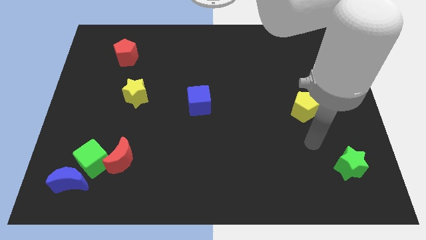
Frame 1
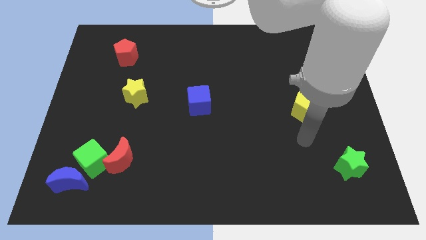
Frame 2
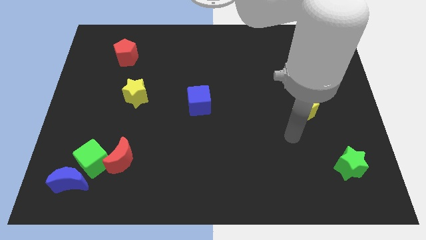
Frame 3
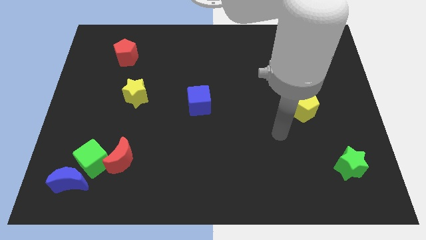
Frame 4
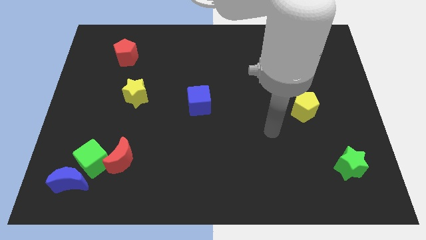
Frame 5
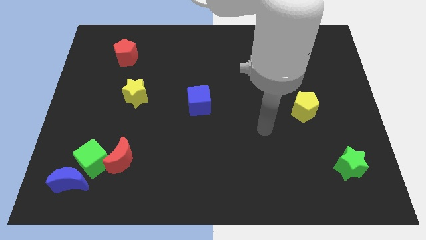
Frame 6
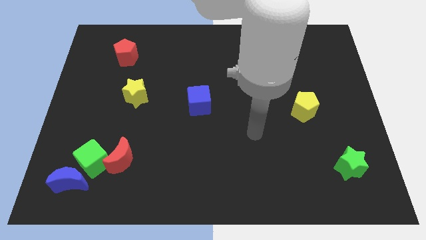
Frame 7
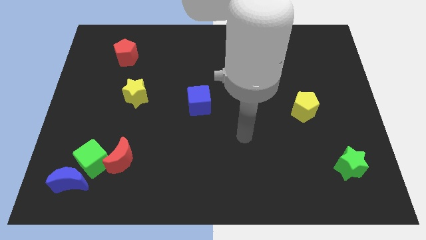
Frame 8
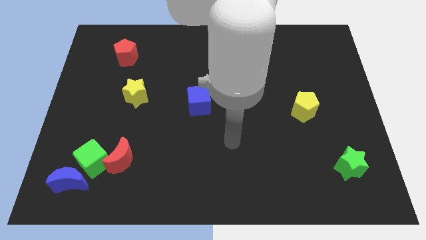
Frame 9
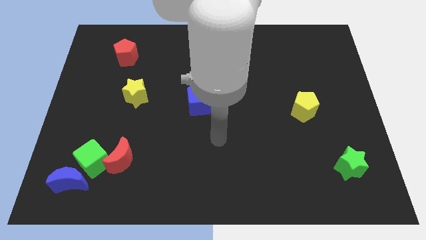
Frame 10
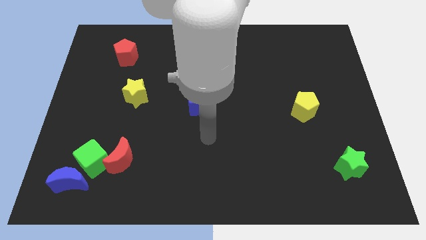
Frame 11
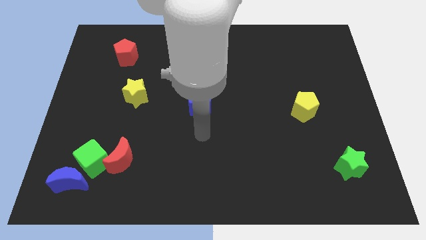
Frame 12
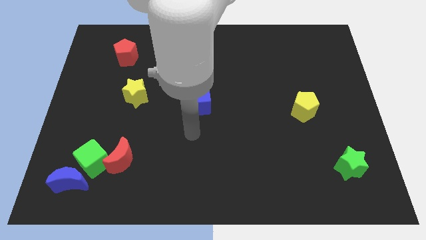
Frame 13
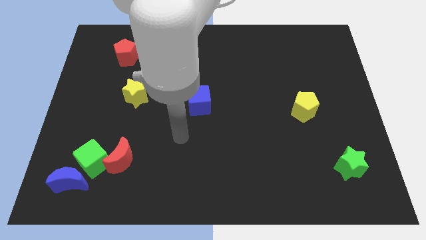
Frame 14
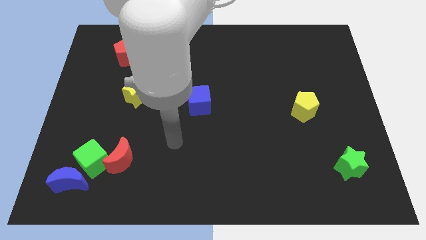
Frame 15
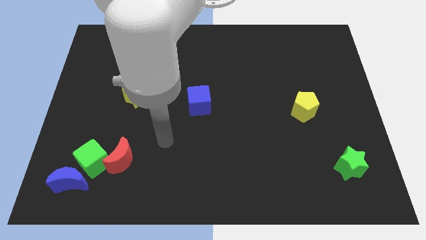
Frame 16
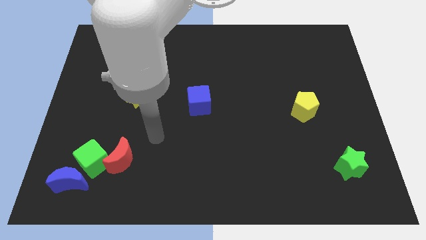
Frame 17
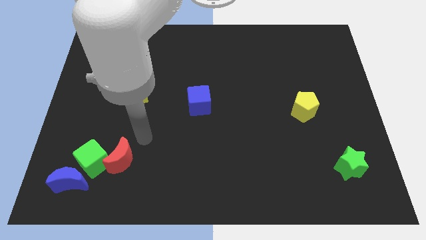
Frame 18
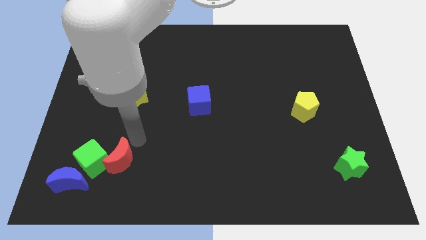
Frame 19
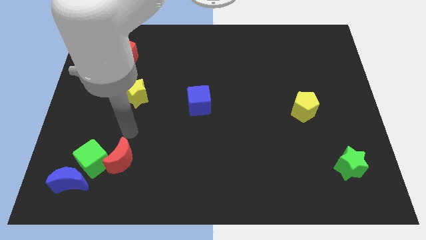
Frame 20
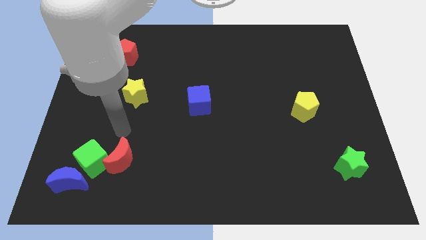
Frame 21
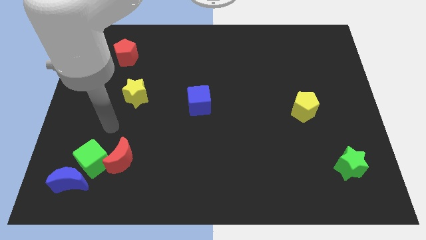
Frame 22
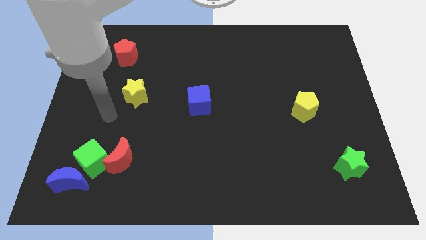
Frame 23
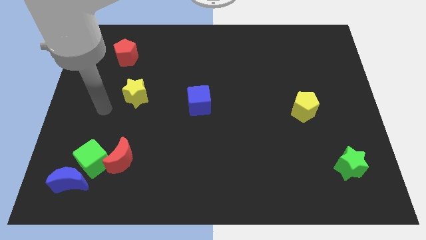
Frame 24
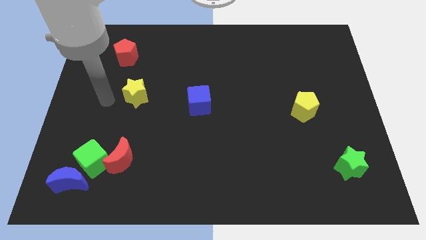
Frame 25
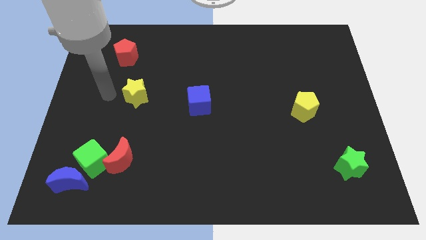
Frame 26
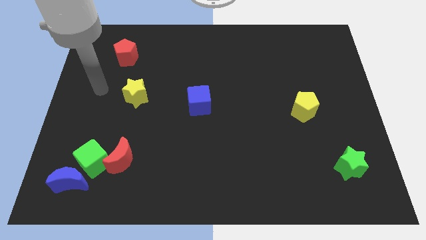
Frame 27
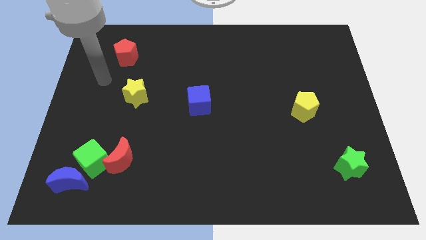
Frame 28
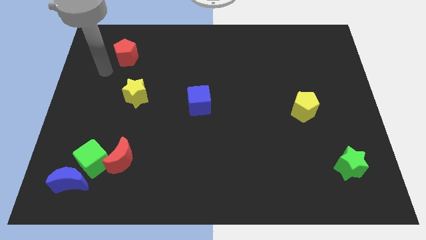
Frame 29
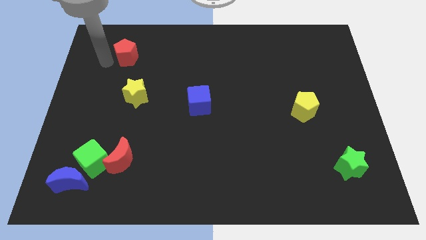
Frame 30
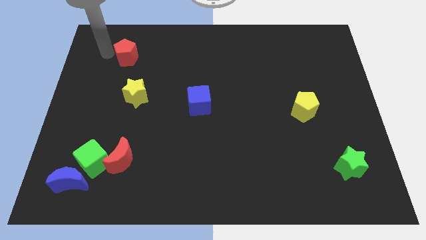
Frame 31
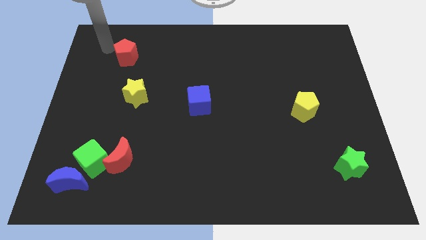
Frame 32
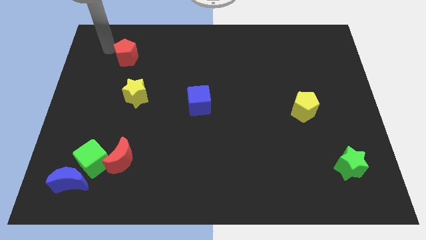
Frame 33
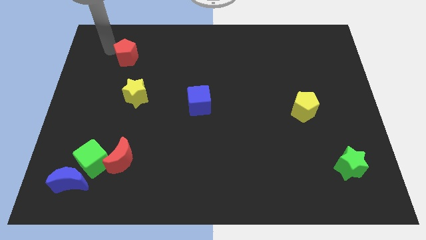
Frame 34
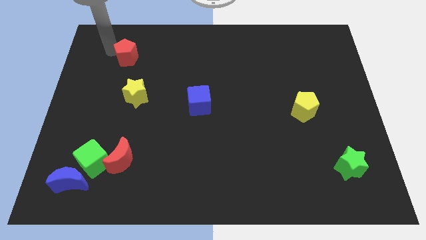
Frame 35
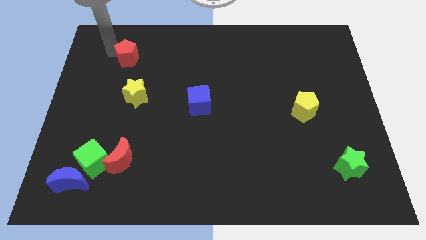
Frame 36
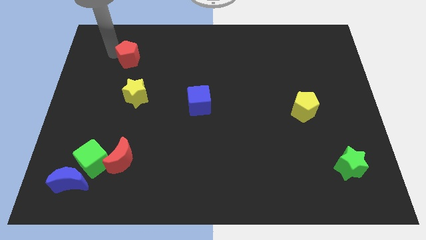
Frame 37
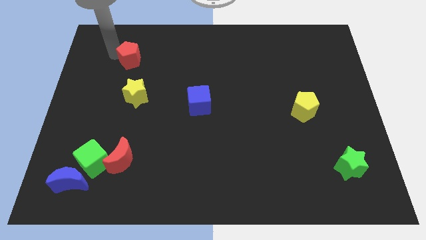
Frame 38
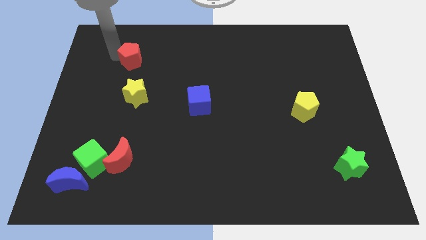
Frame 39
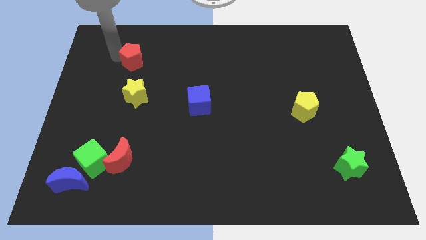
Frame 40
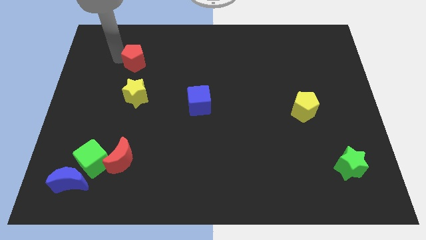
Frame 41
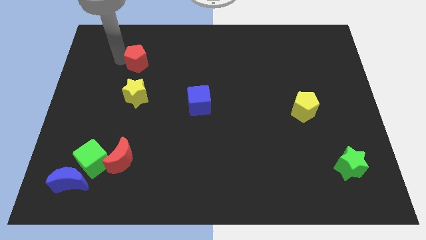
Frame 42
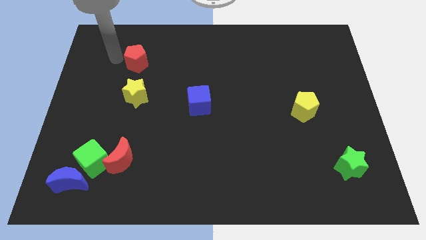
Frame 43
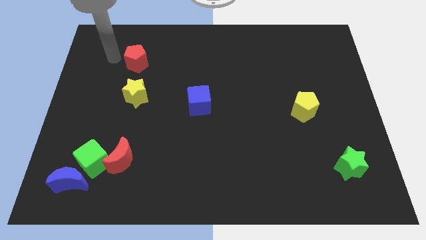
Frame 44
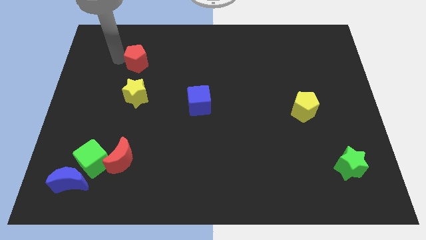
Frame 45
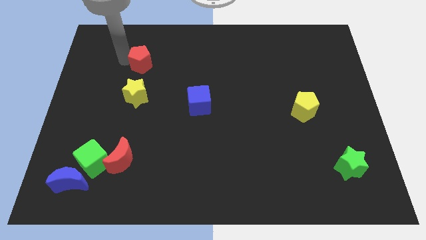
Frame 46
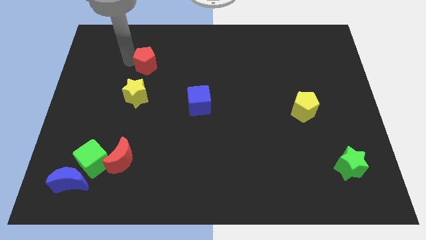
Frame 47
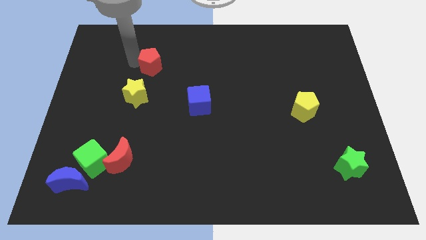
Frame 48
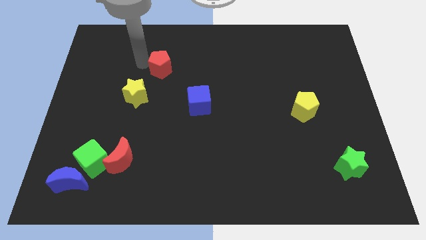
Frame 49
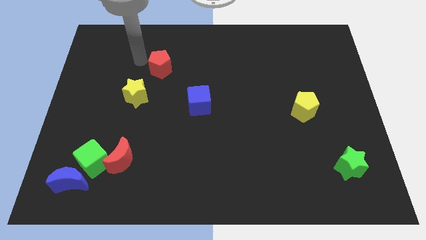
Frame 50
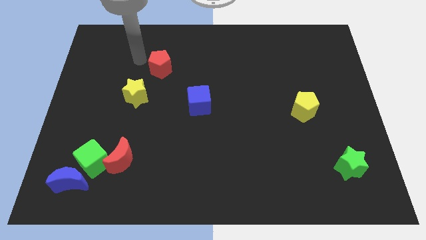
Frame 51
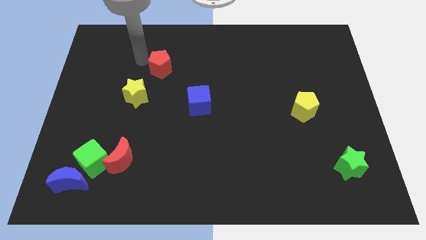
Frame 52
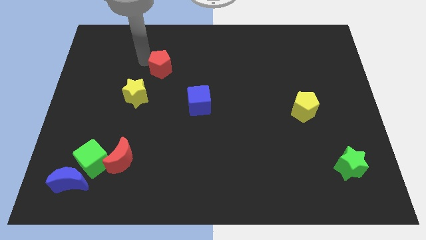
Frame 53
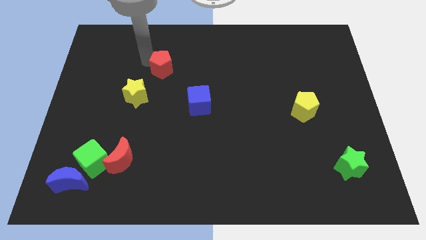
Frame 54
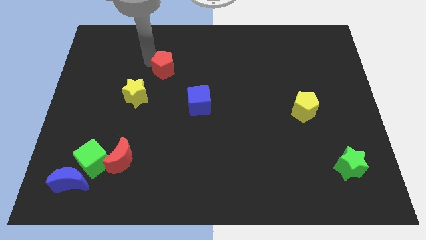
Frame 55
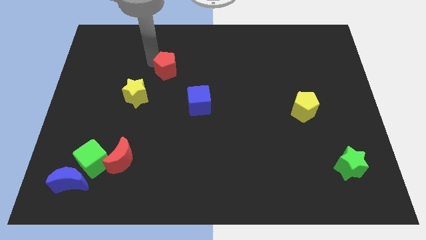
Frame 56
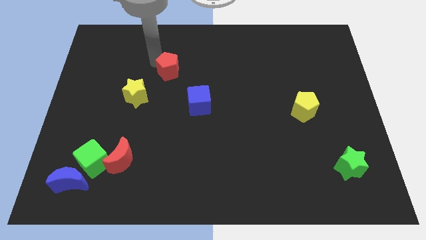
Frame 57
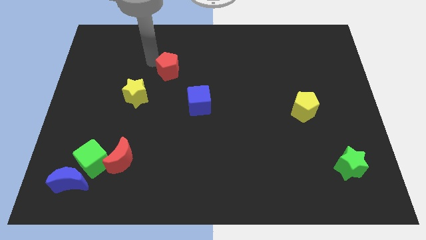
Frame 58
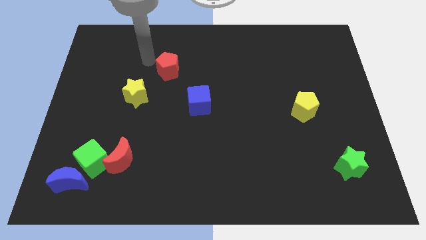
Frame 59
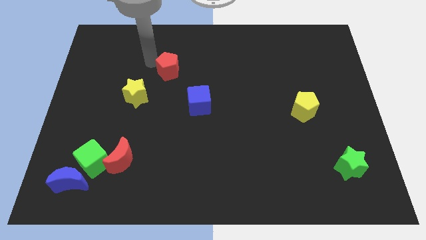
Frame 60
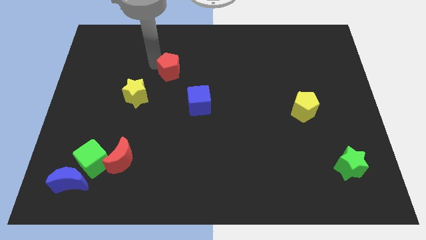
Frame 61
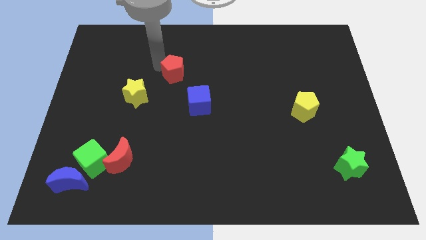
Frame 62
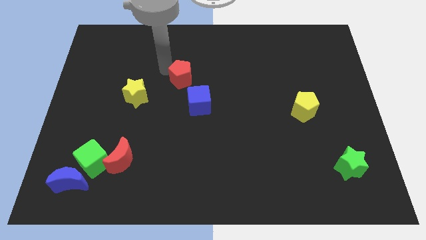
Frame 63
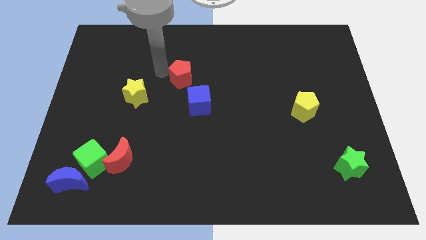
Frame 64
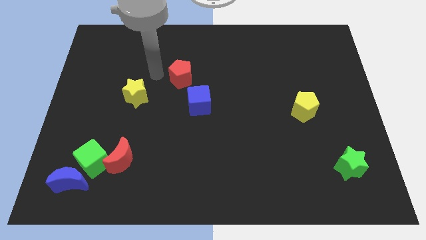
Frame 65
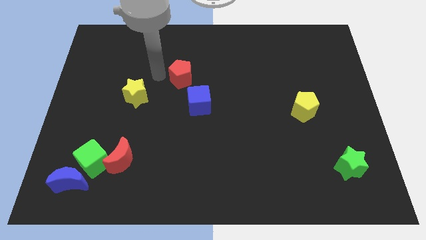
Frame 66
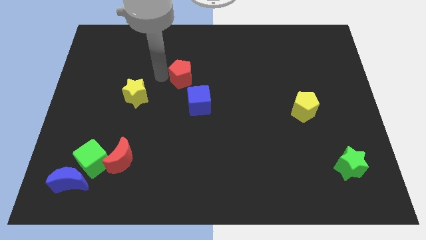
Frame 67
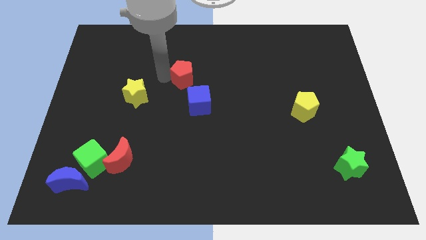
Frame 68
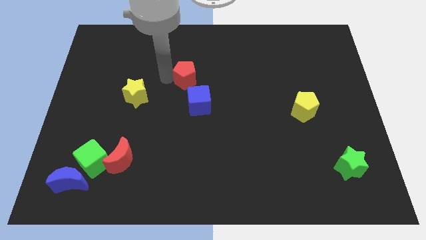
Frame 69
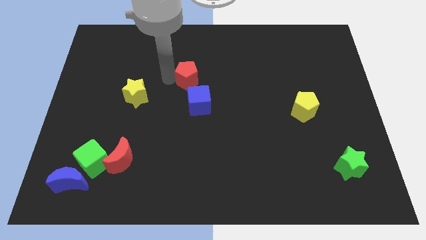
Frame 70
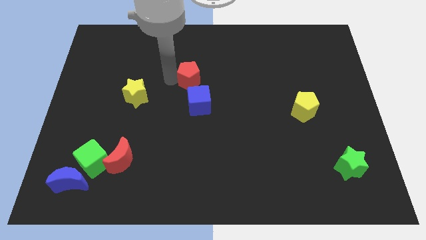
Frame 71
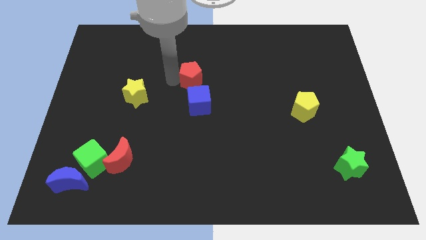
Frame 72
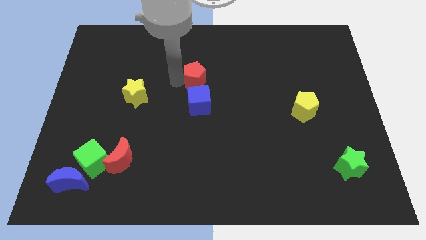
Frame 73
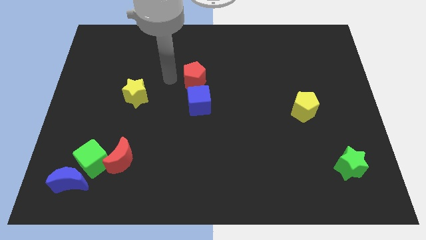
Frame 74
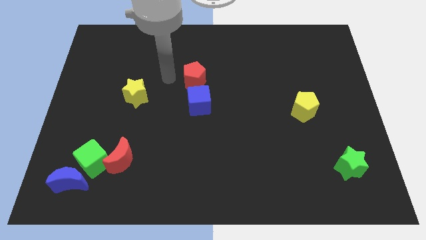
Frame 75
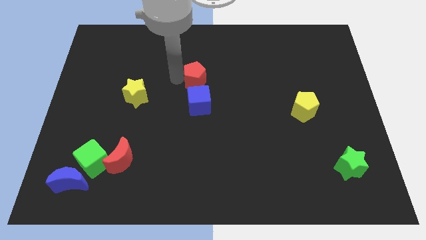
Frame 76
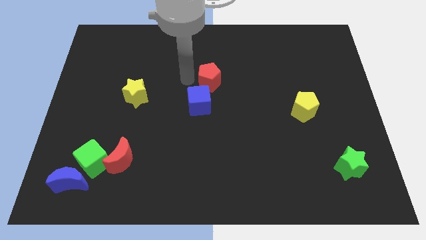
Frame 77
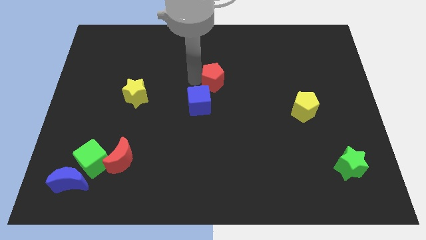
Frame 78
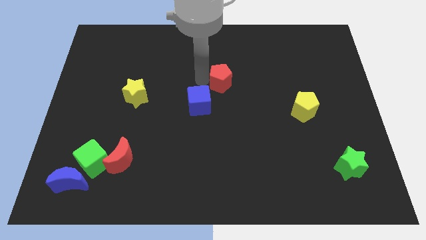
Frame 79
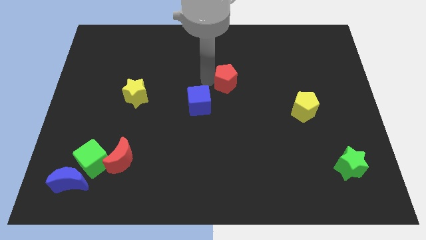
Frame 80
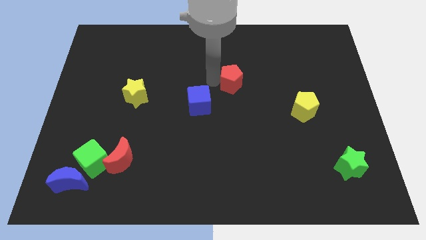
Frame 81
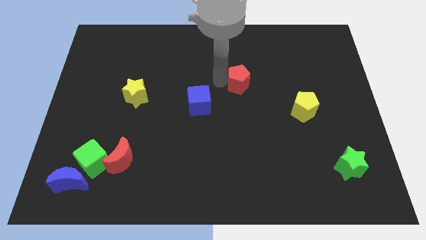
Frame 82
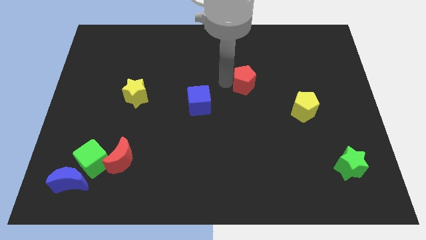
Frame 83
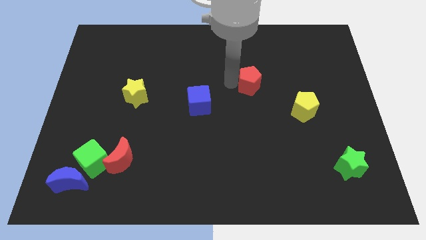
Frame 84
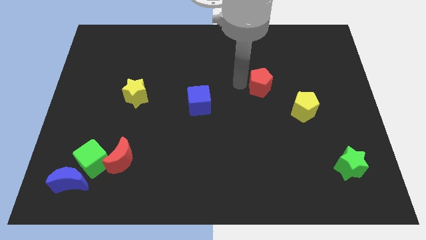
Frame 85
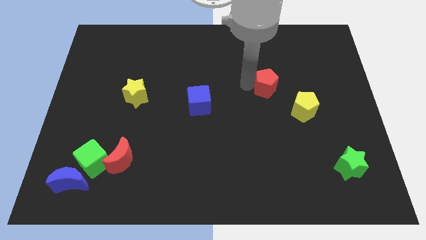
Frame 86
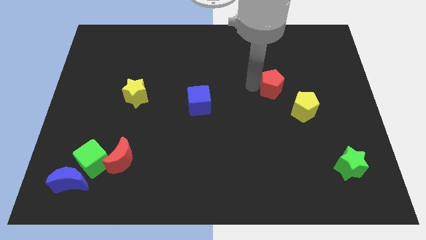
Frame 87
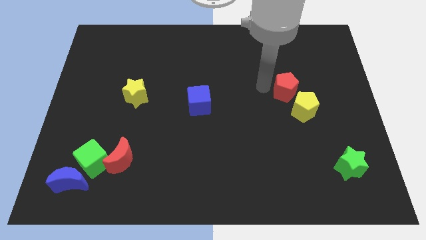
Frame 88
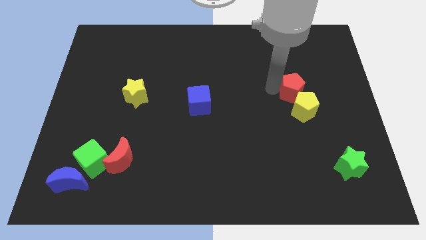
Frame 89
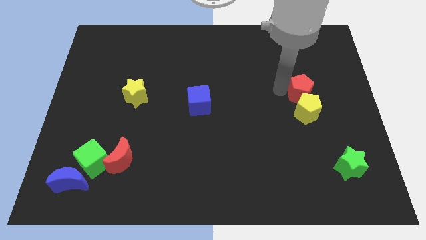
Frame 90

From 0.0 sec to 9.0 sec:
slide the red pentagon to the top right side of the yellow pentagon
